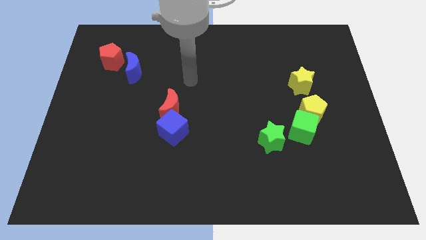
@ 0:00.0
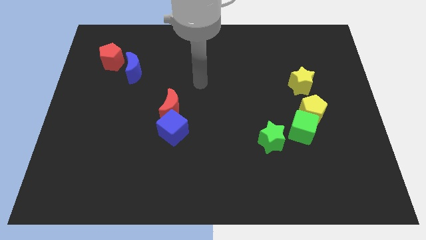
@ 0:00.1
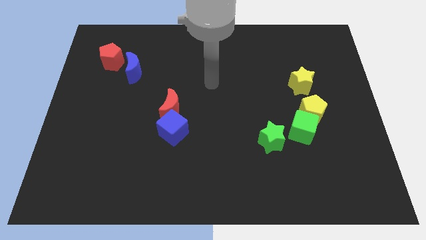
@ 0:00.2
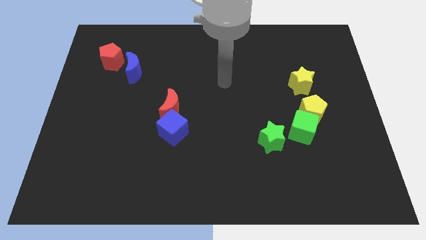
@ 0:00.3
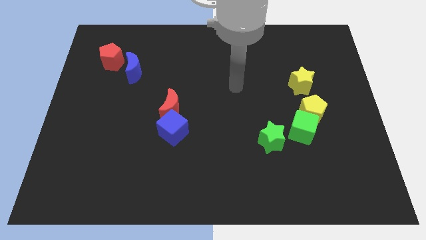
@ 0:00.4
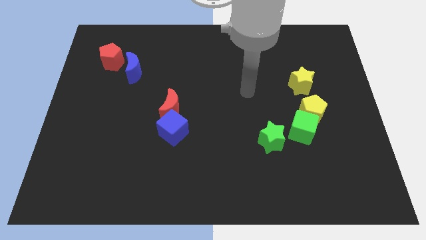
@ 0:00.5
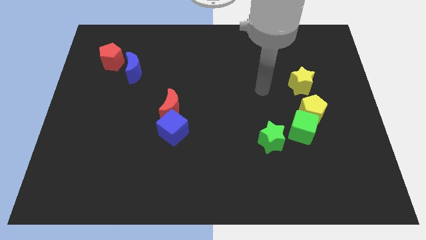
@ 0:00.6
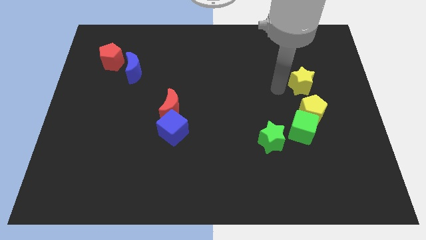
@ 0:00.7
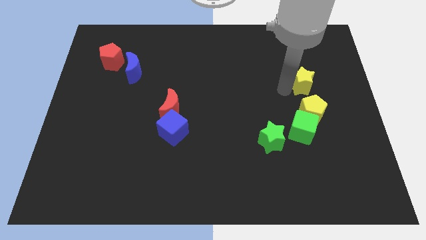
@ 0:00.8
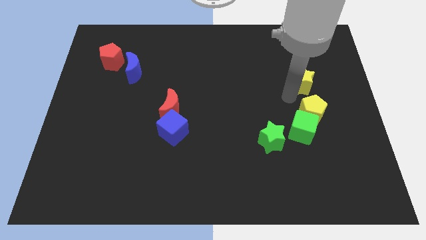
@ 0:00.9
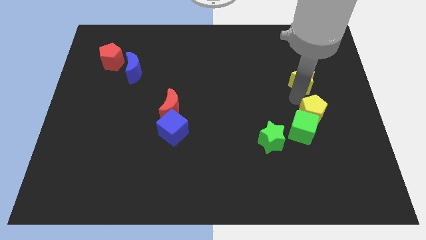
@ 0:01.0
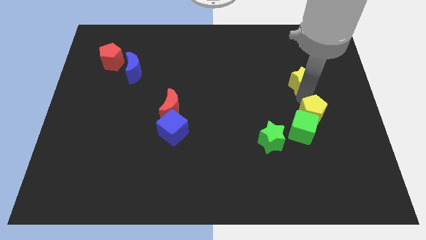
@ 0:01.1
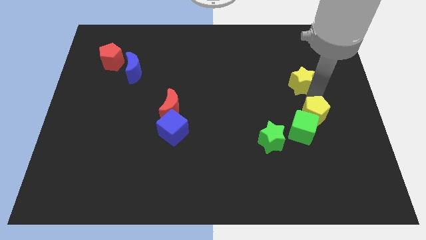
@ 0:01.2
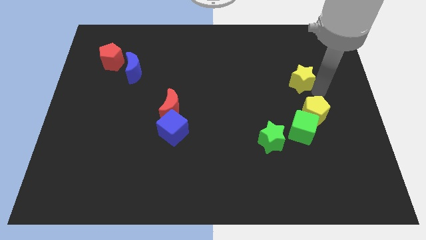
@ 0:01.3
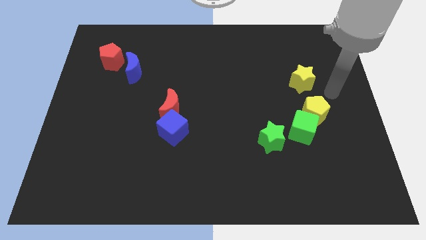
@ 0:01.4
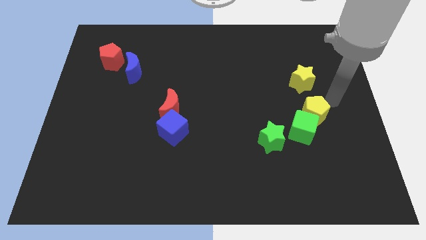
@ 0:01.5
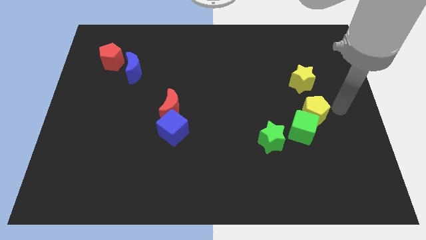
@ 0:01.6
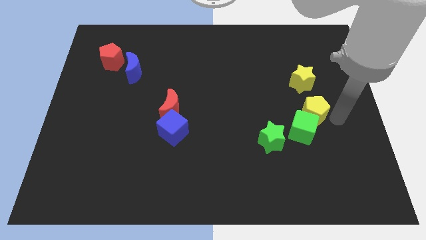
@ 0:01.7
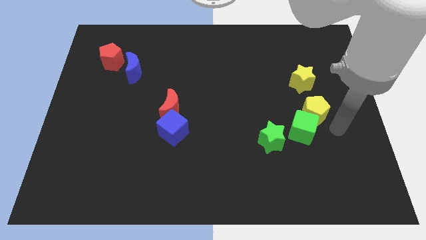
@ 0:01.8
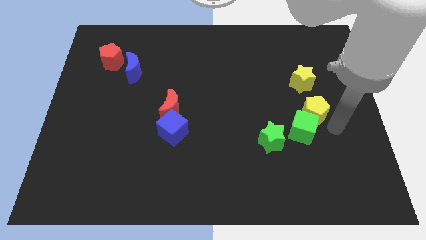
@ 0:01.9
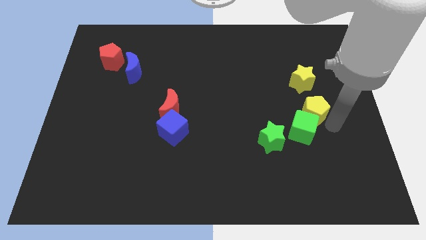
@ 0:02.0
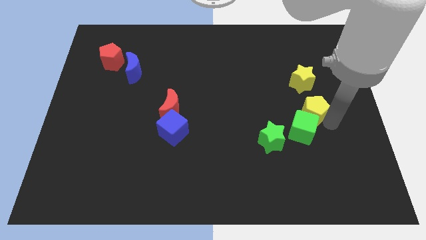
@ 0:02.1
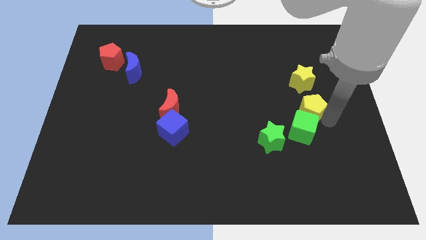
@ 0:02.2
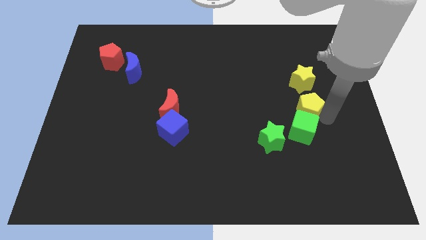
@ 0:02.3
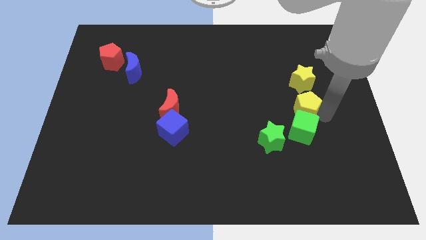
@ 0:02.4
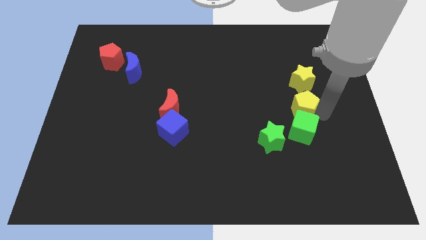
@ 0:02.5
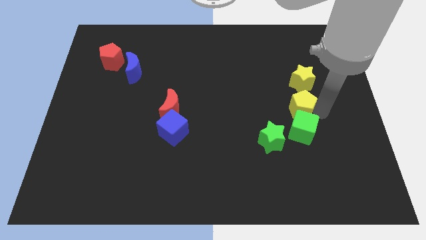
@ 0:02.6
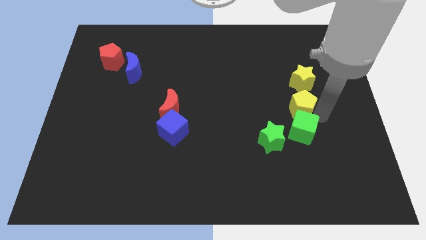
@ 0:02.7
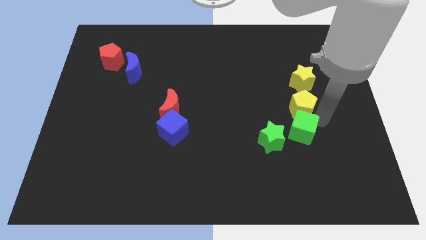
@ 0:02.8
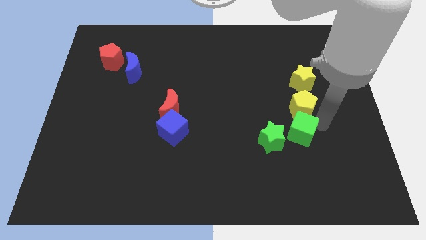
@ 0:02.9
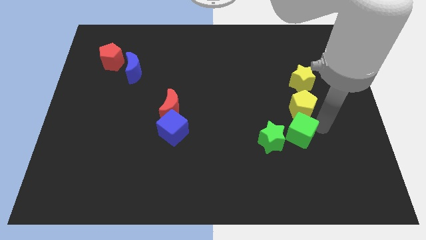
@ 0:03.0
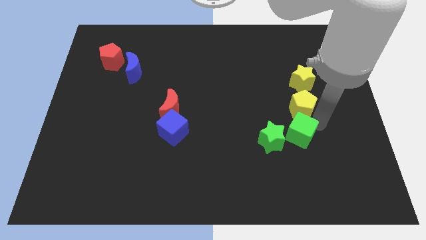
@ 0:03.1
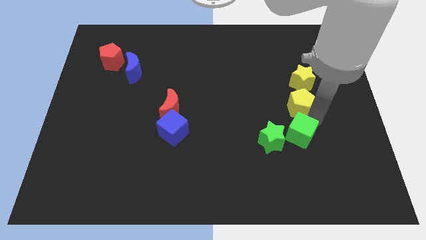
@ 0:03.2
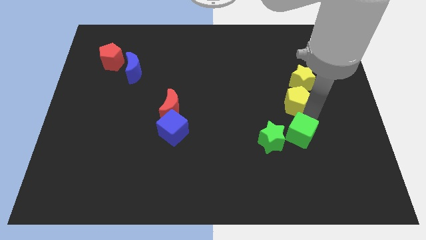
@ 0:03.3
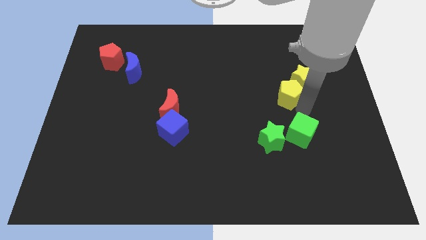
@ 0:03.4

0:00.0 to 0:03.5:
slightly push the yellow pentagon up and then to the left

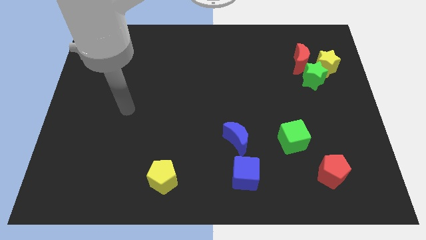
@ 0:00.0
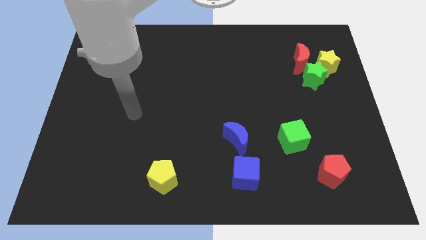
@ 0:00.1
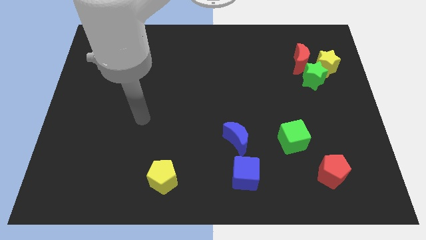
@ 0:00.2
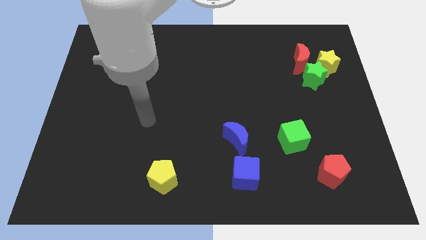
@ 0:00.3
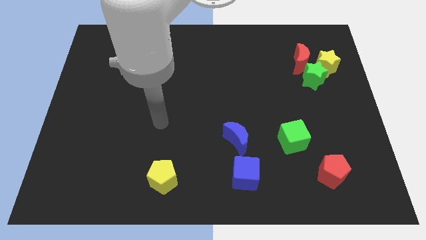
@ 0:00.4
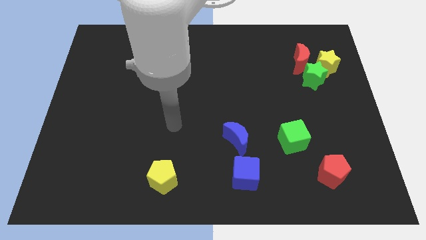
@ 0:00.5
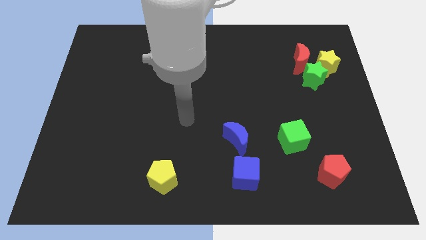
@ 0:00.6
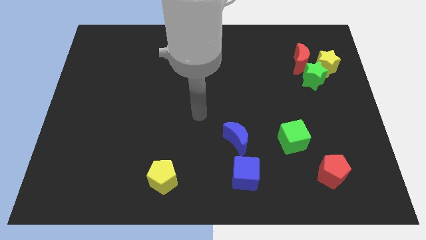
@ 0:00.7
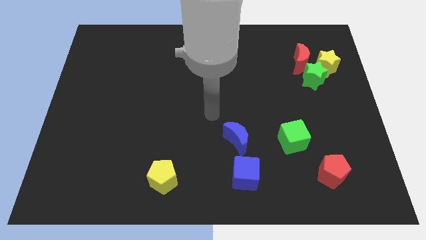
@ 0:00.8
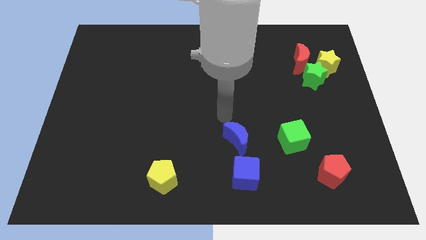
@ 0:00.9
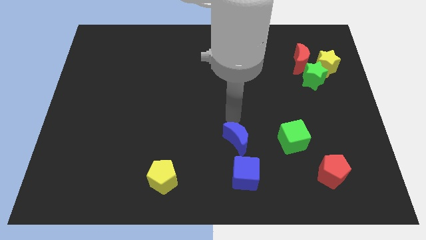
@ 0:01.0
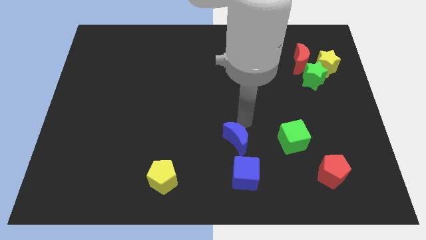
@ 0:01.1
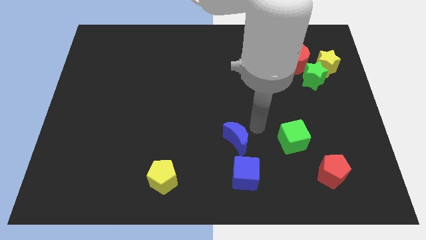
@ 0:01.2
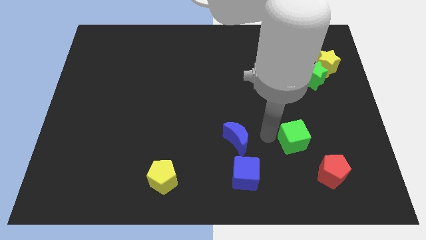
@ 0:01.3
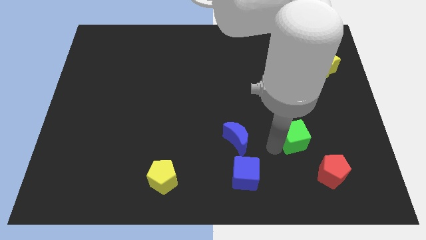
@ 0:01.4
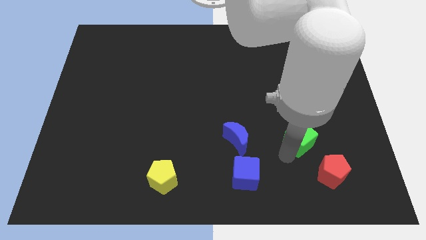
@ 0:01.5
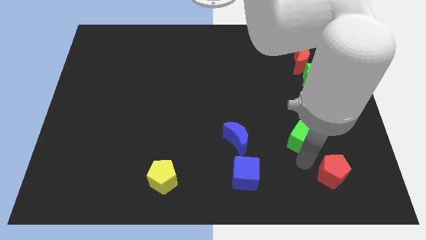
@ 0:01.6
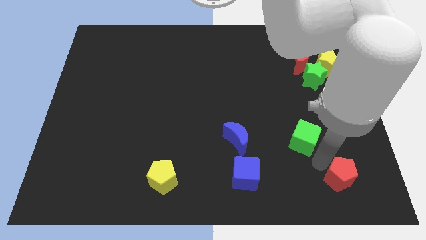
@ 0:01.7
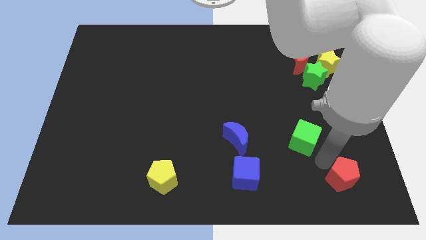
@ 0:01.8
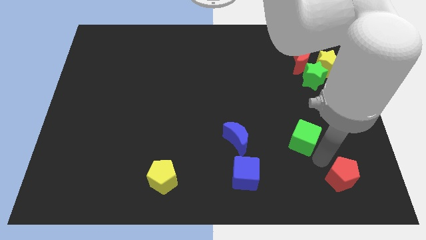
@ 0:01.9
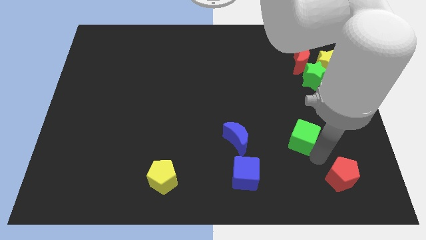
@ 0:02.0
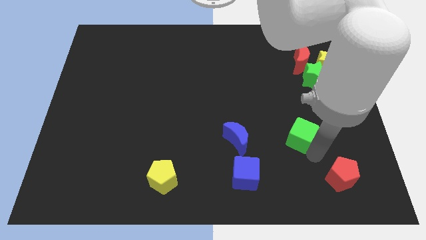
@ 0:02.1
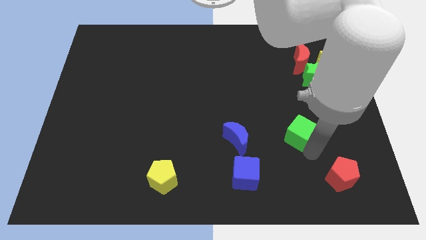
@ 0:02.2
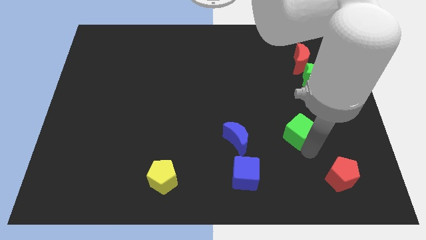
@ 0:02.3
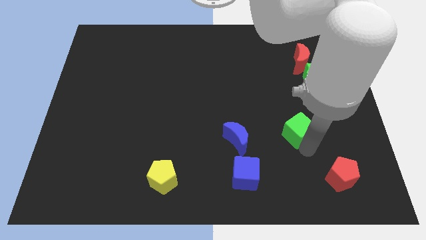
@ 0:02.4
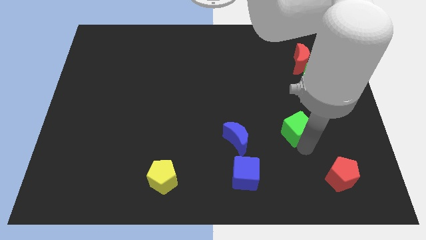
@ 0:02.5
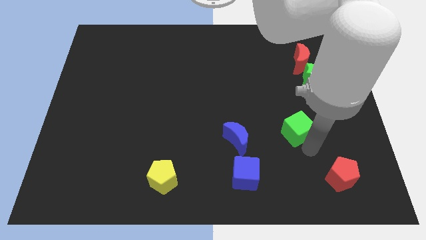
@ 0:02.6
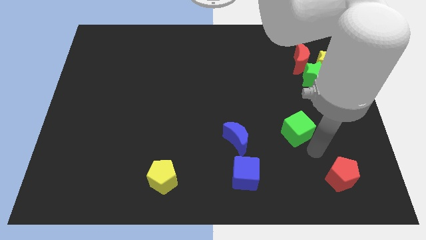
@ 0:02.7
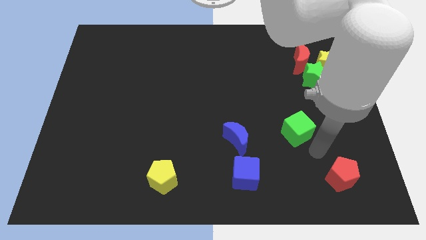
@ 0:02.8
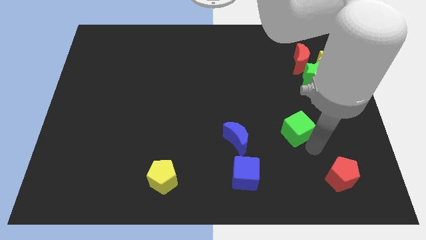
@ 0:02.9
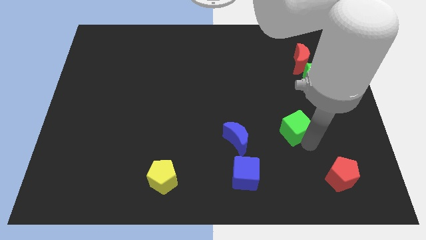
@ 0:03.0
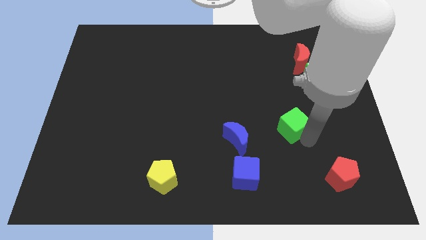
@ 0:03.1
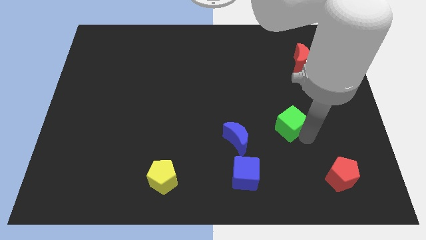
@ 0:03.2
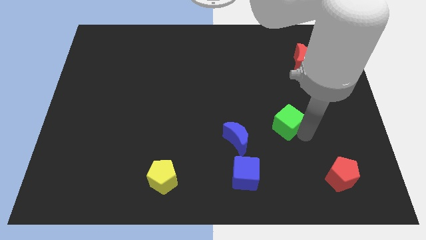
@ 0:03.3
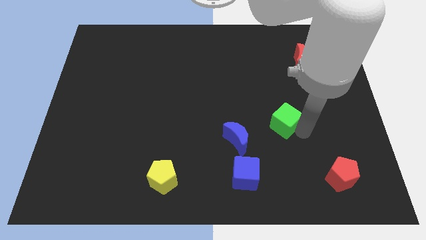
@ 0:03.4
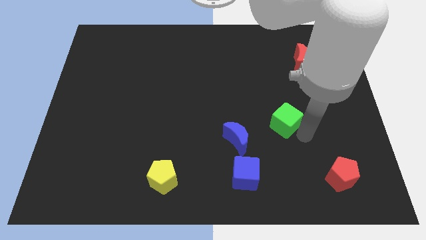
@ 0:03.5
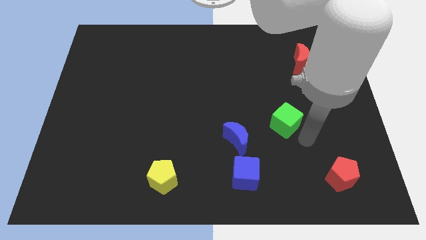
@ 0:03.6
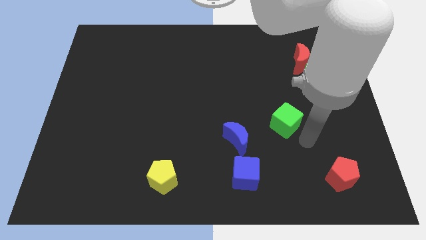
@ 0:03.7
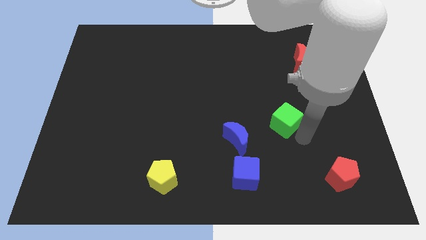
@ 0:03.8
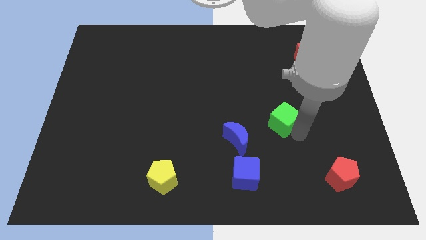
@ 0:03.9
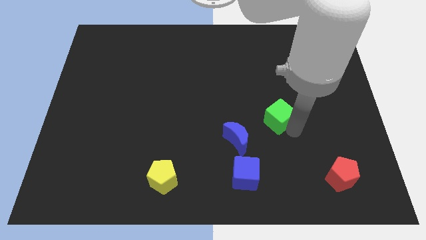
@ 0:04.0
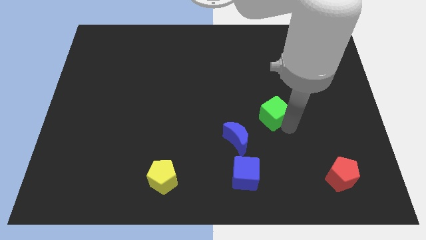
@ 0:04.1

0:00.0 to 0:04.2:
move the green cube up and left diagonally slightly

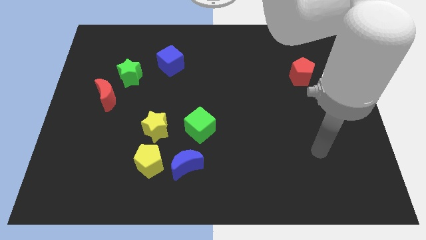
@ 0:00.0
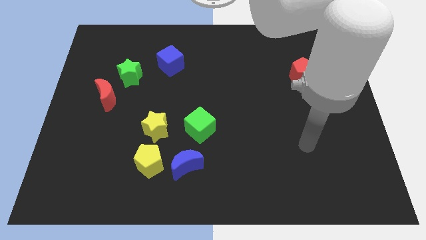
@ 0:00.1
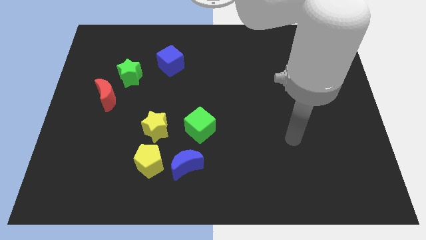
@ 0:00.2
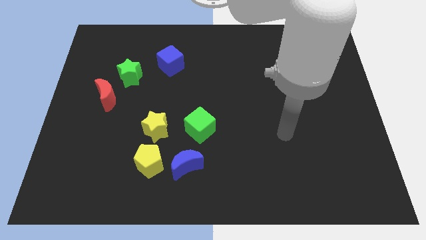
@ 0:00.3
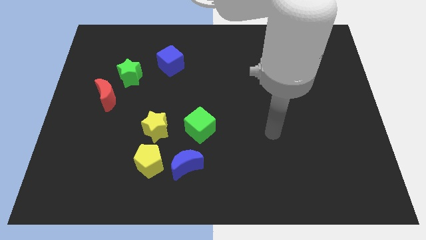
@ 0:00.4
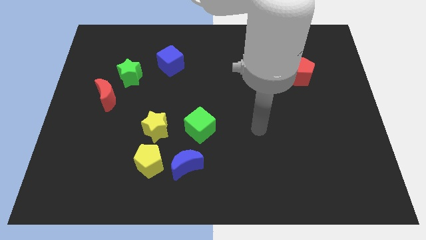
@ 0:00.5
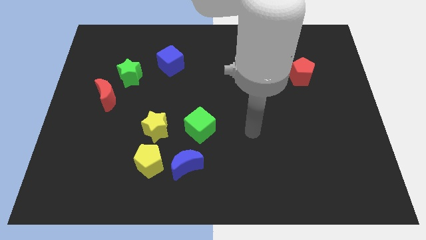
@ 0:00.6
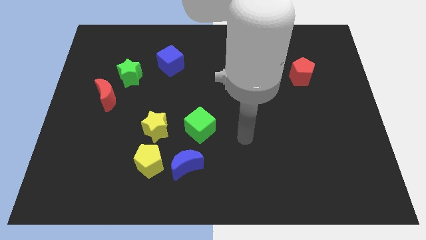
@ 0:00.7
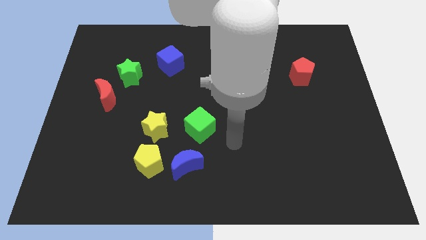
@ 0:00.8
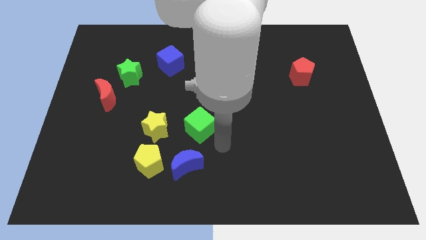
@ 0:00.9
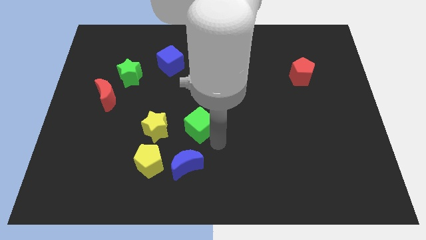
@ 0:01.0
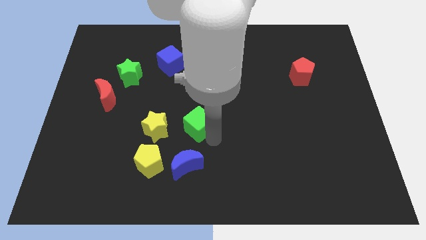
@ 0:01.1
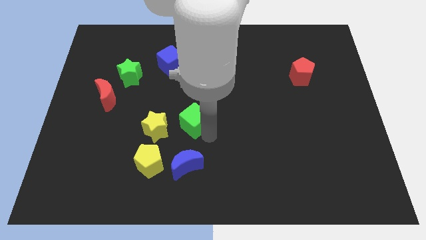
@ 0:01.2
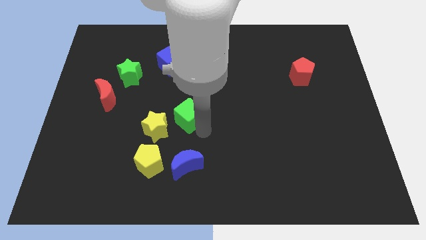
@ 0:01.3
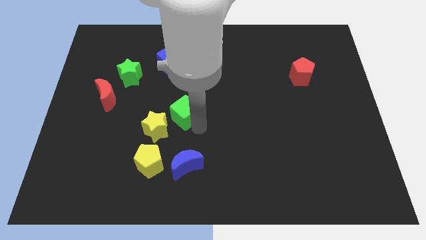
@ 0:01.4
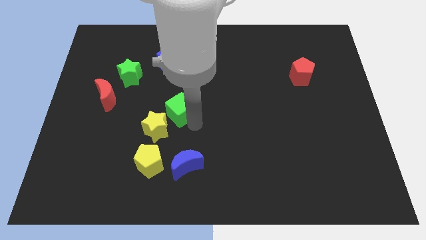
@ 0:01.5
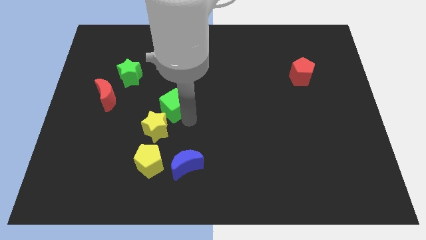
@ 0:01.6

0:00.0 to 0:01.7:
slightly push the green cube diagonally upwards and left
